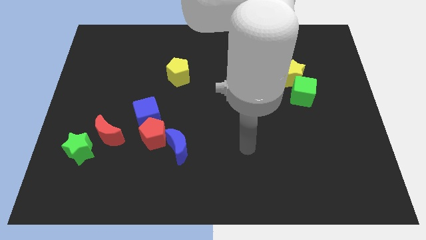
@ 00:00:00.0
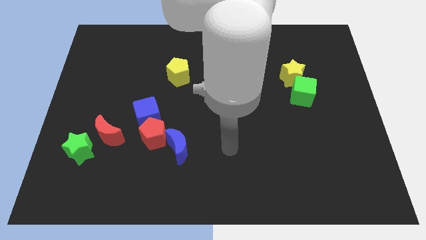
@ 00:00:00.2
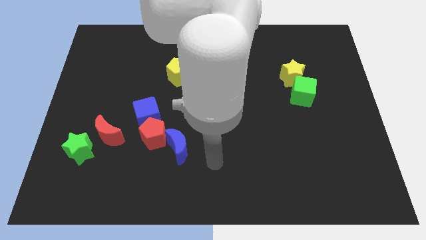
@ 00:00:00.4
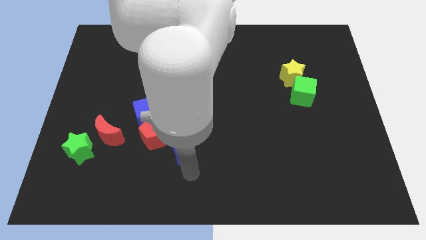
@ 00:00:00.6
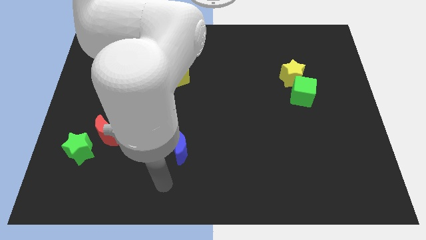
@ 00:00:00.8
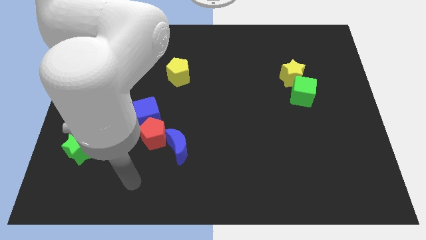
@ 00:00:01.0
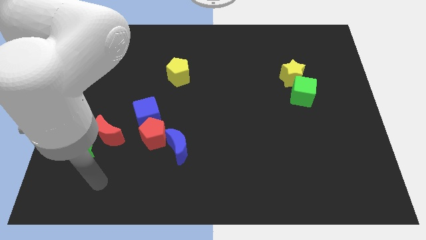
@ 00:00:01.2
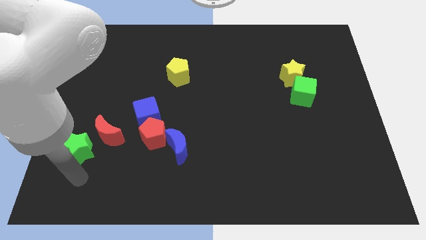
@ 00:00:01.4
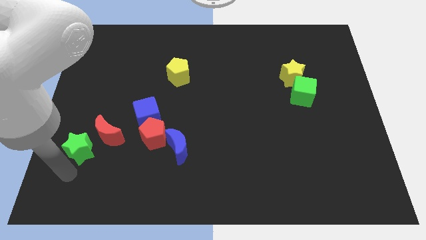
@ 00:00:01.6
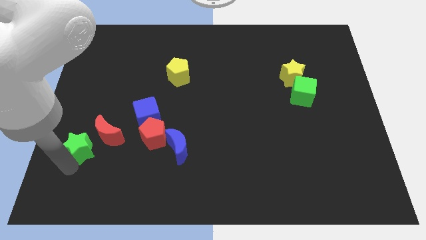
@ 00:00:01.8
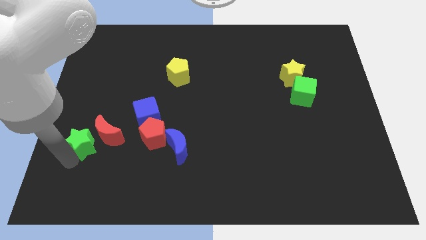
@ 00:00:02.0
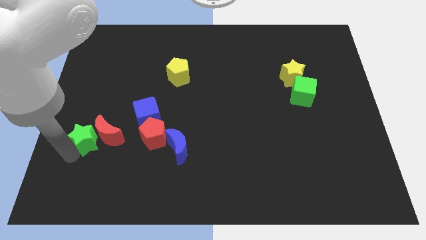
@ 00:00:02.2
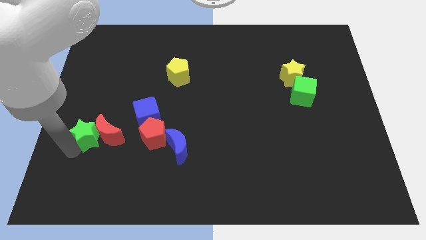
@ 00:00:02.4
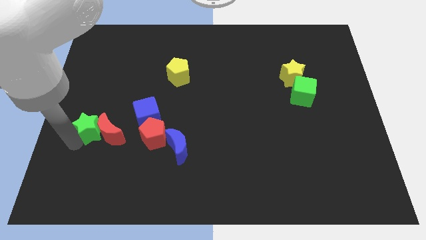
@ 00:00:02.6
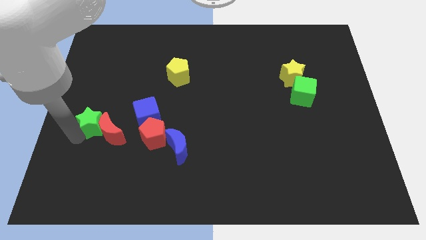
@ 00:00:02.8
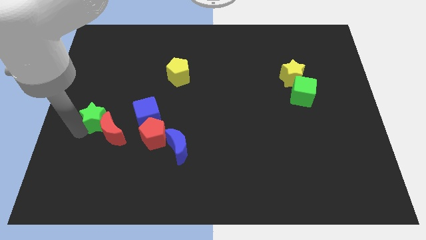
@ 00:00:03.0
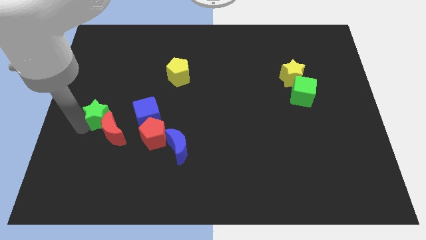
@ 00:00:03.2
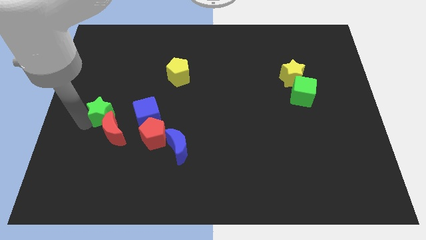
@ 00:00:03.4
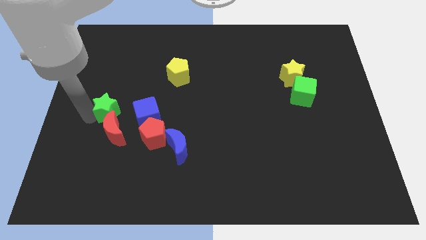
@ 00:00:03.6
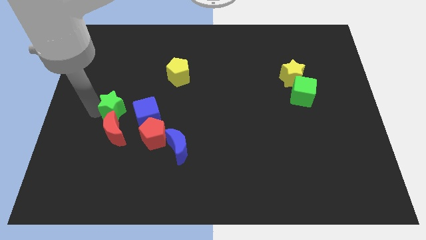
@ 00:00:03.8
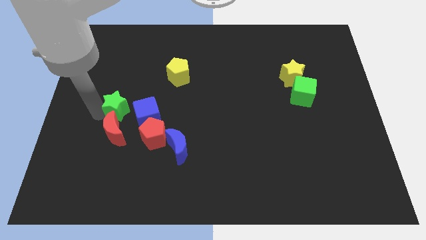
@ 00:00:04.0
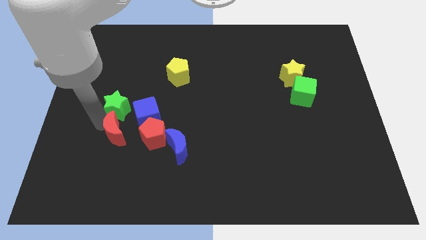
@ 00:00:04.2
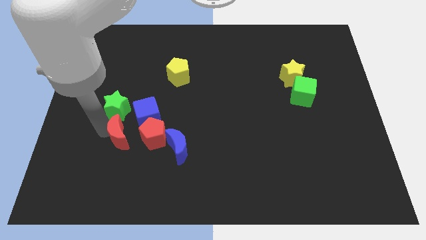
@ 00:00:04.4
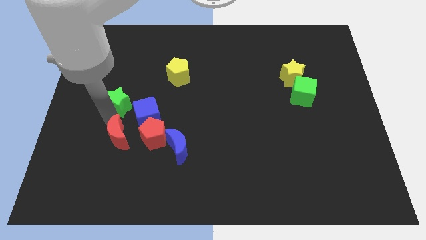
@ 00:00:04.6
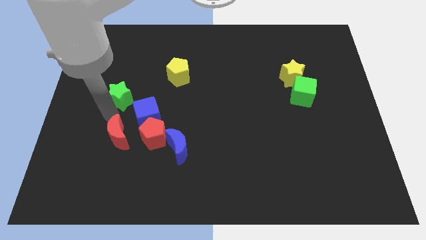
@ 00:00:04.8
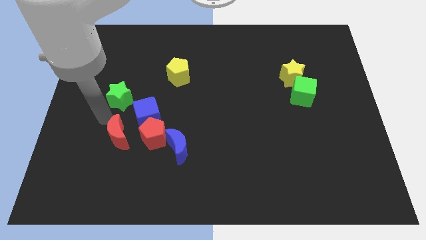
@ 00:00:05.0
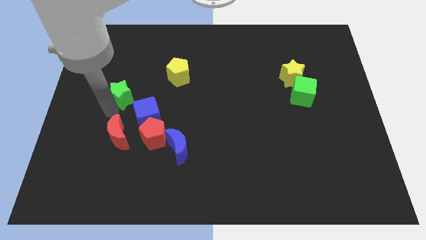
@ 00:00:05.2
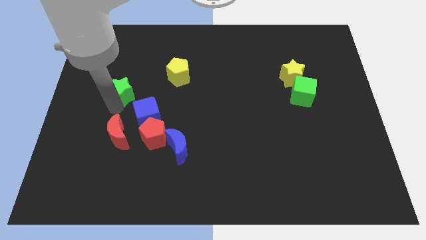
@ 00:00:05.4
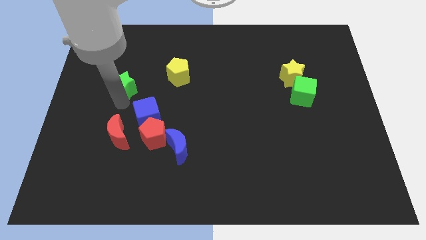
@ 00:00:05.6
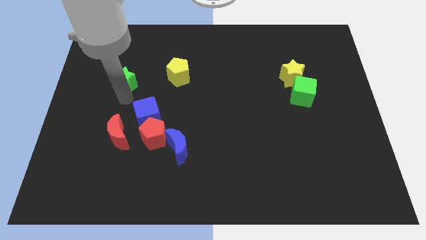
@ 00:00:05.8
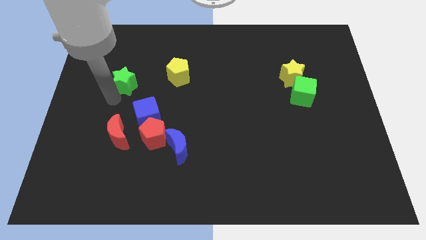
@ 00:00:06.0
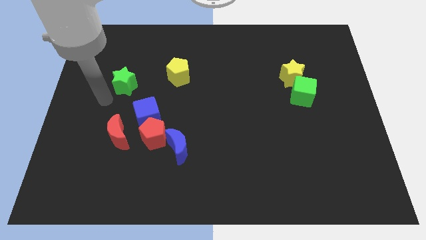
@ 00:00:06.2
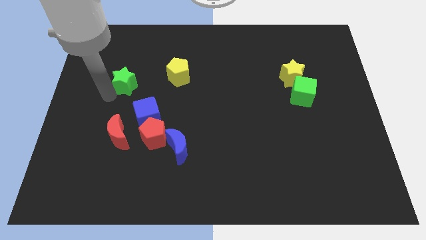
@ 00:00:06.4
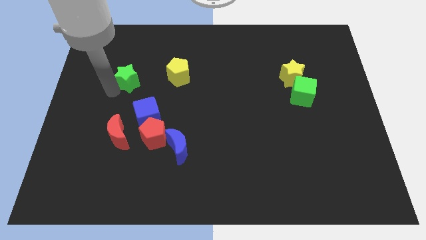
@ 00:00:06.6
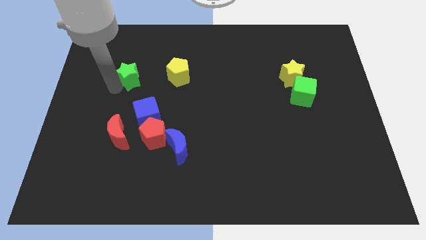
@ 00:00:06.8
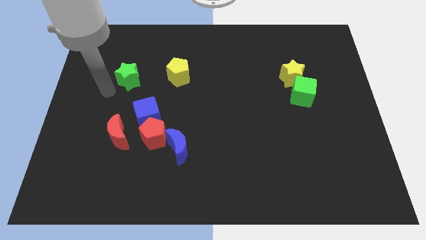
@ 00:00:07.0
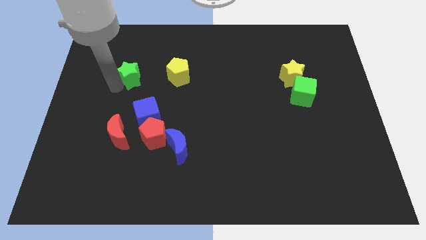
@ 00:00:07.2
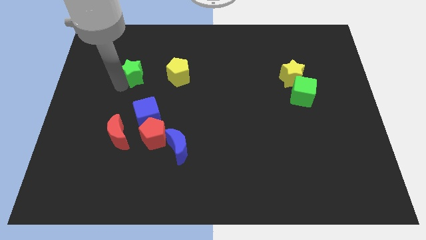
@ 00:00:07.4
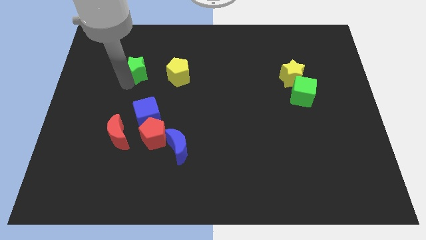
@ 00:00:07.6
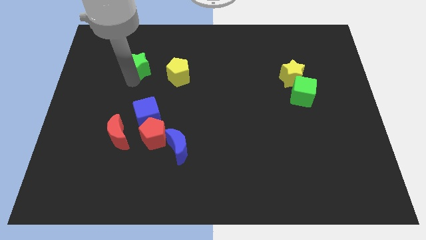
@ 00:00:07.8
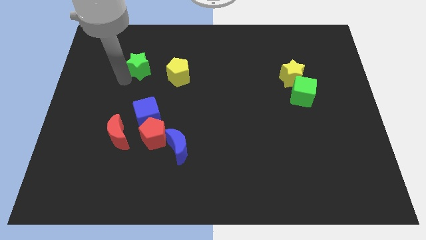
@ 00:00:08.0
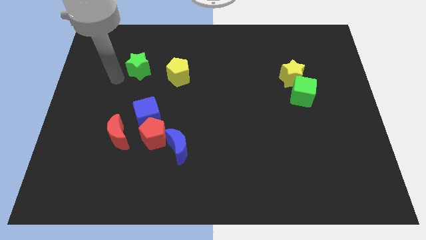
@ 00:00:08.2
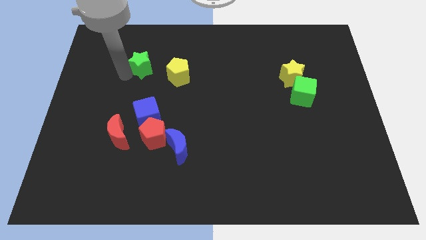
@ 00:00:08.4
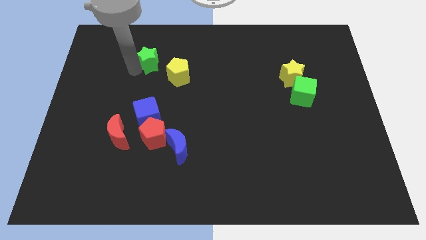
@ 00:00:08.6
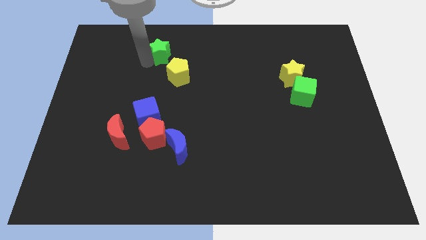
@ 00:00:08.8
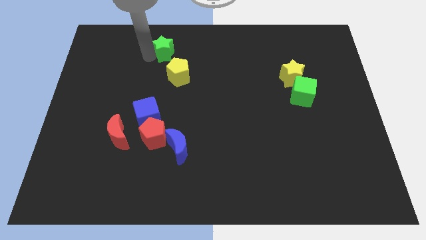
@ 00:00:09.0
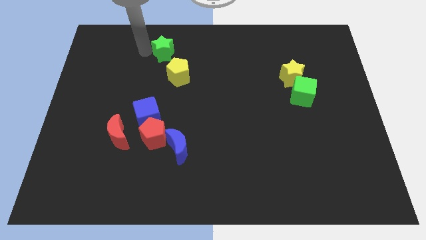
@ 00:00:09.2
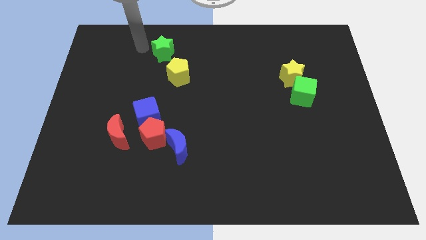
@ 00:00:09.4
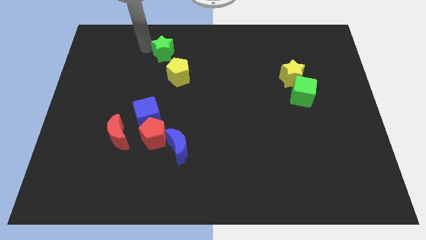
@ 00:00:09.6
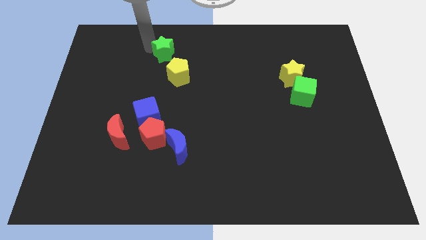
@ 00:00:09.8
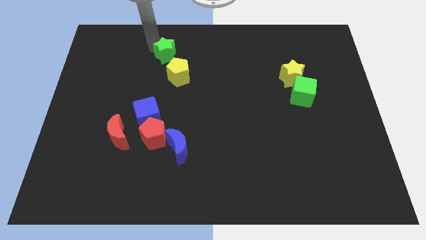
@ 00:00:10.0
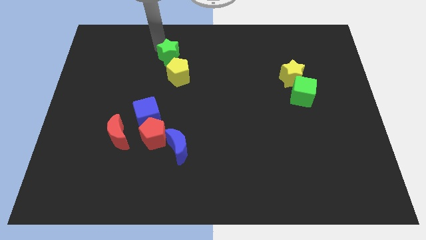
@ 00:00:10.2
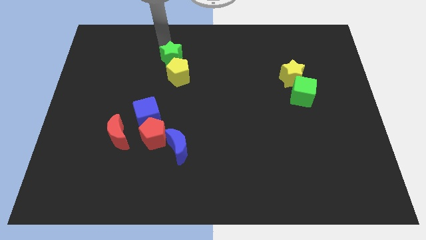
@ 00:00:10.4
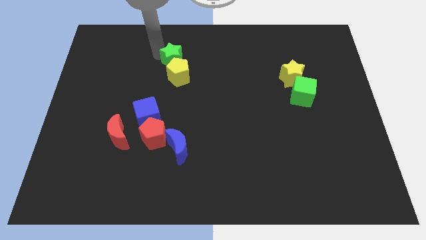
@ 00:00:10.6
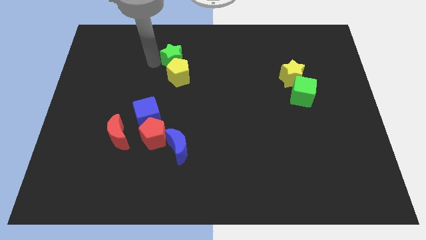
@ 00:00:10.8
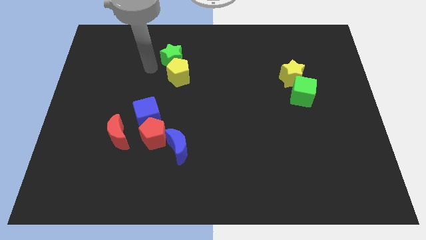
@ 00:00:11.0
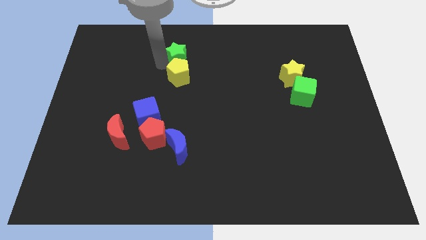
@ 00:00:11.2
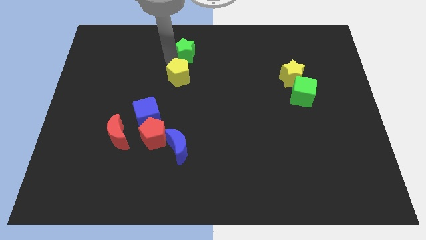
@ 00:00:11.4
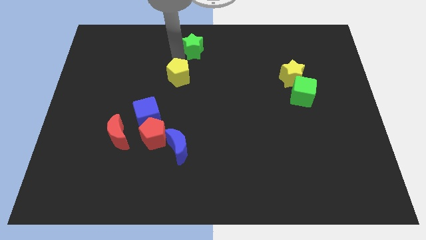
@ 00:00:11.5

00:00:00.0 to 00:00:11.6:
move the green star to the top side
